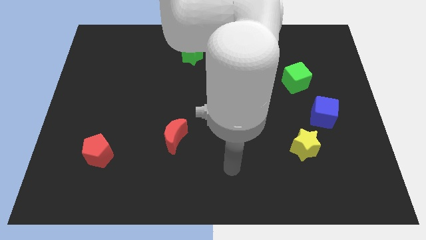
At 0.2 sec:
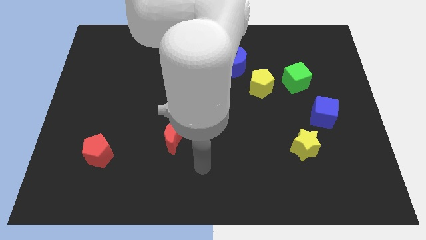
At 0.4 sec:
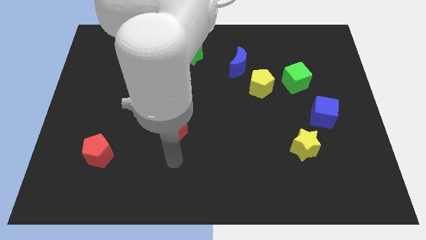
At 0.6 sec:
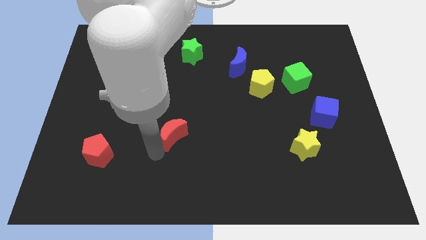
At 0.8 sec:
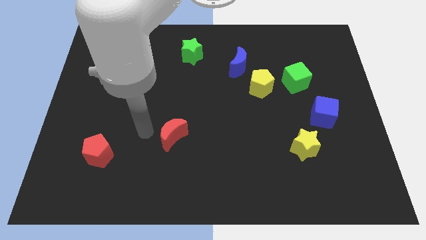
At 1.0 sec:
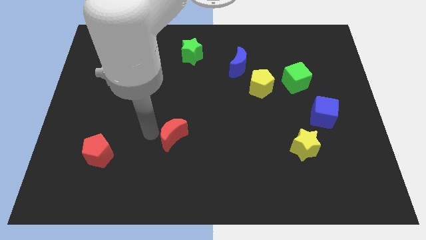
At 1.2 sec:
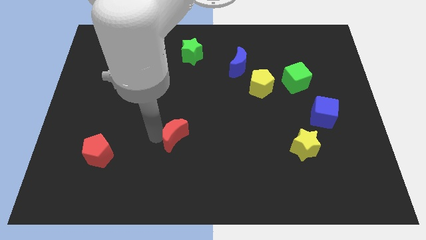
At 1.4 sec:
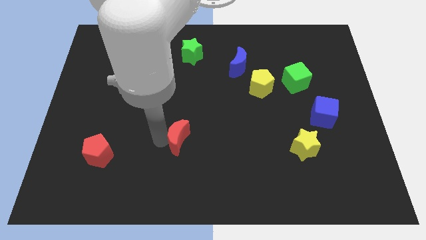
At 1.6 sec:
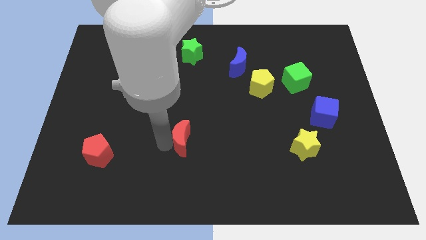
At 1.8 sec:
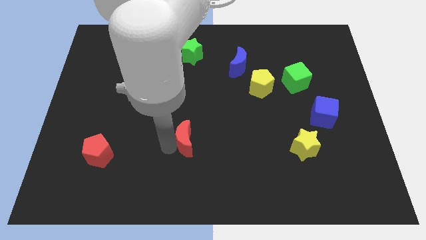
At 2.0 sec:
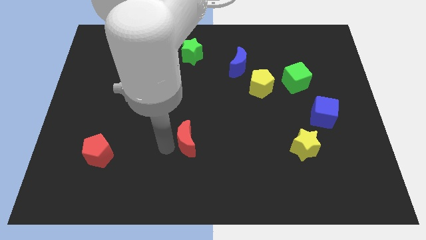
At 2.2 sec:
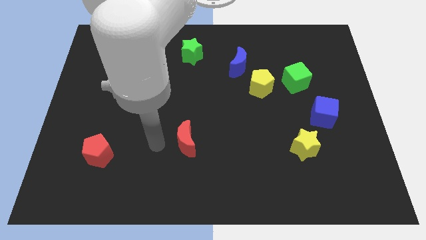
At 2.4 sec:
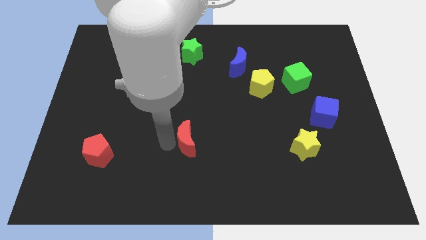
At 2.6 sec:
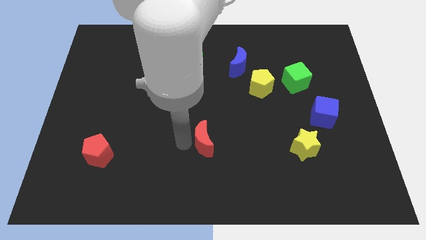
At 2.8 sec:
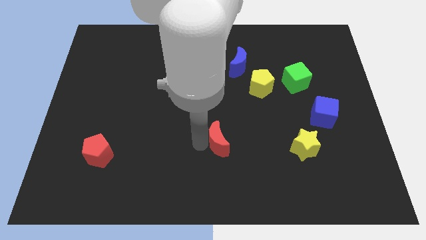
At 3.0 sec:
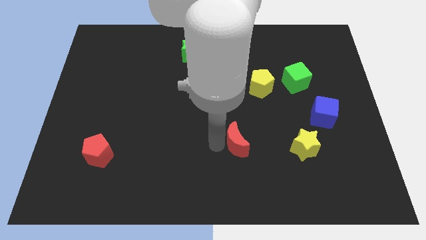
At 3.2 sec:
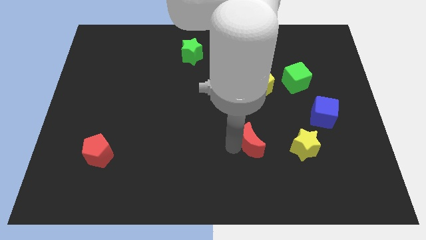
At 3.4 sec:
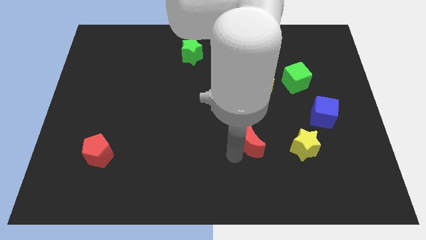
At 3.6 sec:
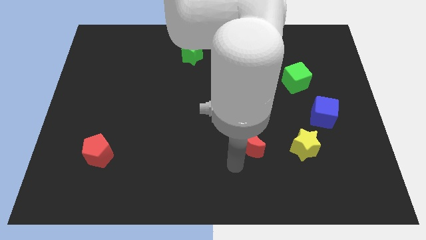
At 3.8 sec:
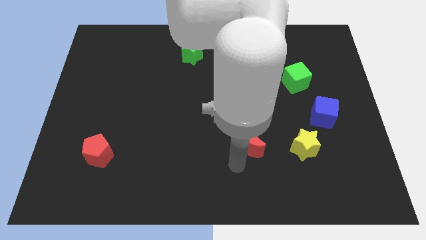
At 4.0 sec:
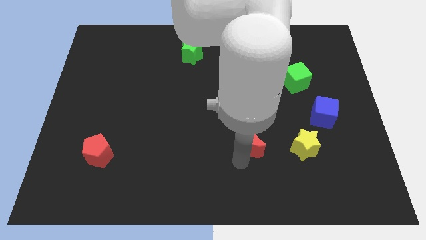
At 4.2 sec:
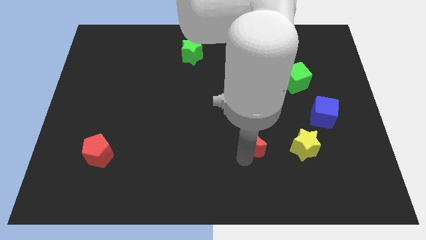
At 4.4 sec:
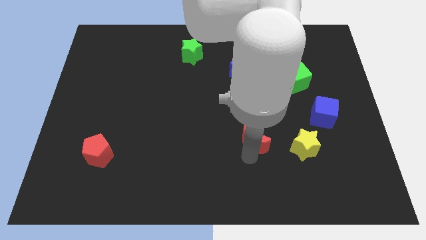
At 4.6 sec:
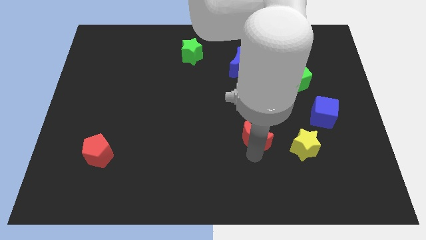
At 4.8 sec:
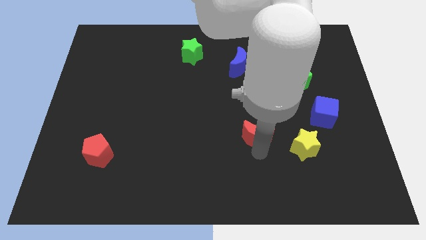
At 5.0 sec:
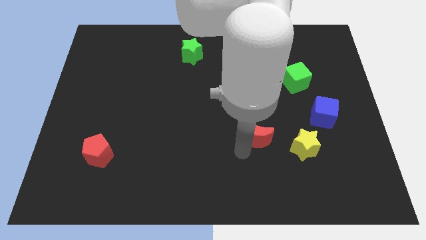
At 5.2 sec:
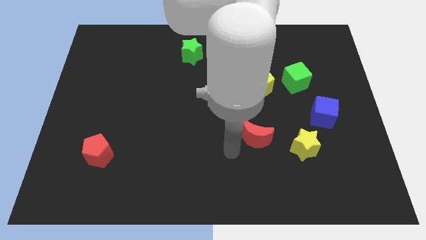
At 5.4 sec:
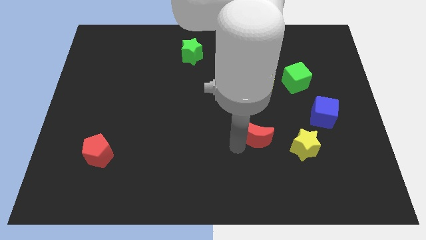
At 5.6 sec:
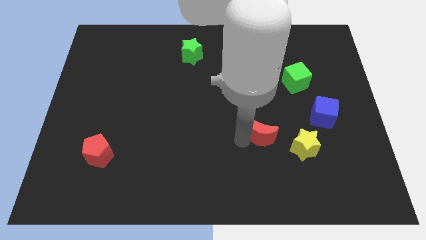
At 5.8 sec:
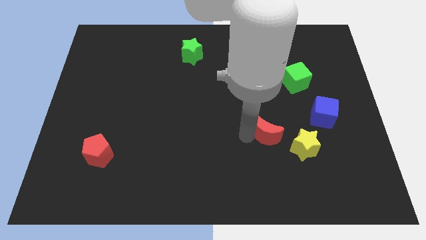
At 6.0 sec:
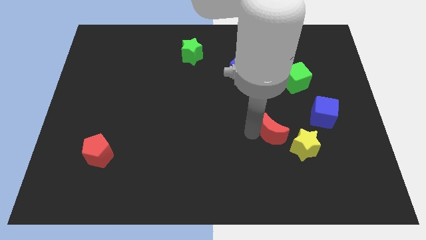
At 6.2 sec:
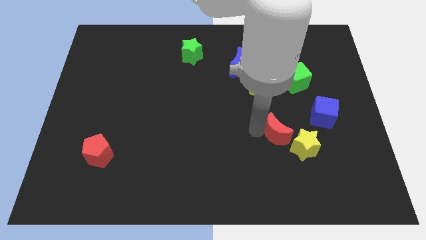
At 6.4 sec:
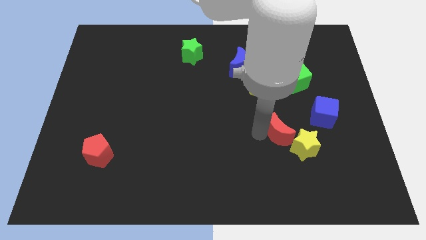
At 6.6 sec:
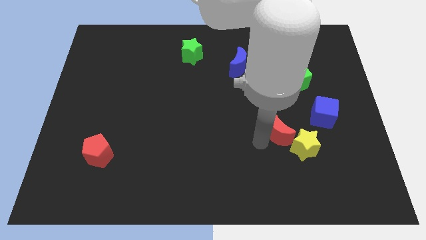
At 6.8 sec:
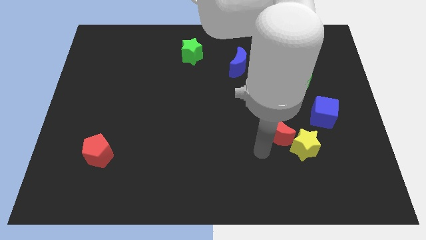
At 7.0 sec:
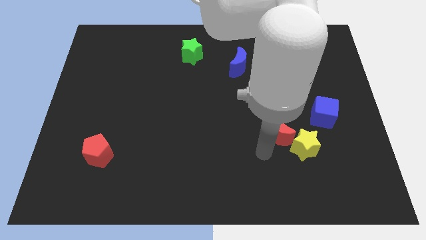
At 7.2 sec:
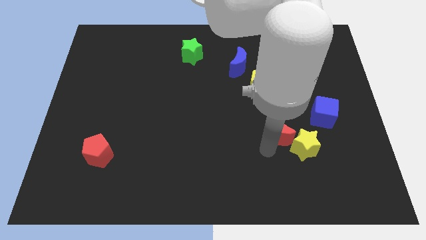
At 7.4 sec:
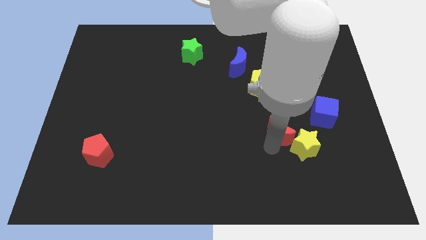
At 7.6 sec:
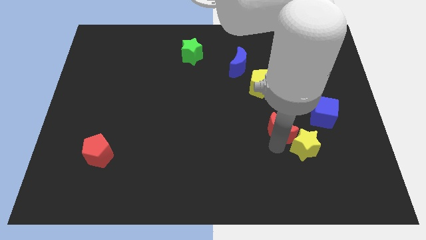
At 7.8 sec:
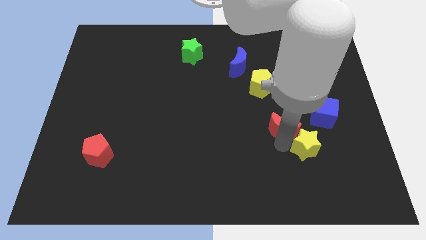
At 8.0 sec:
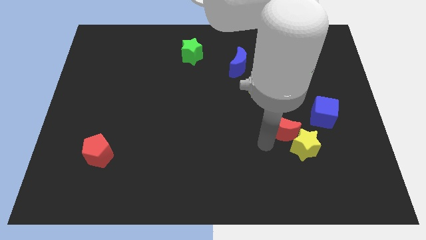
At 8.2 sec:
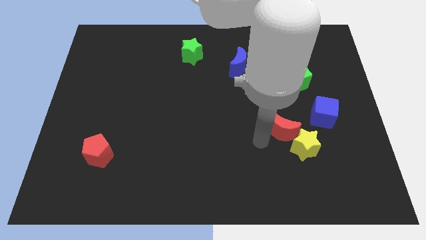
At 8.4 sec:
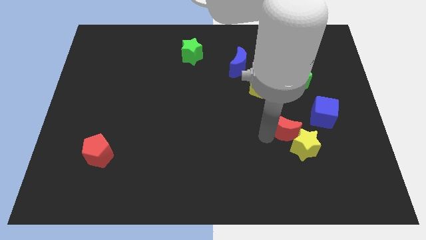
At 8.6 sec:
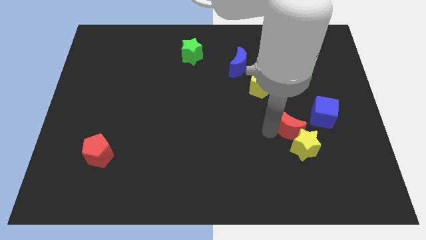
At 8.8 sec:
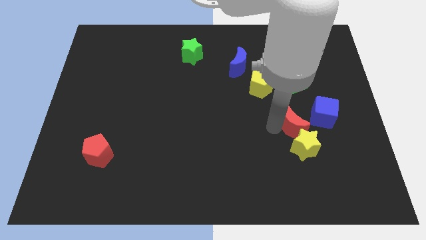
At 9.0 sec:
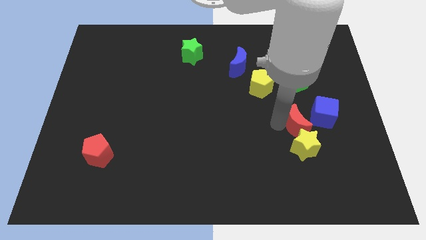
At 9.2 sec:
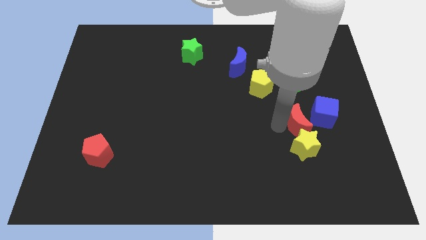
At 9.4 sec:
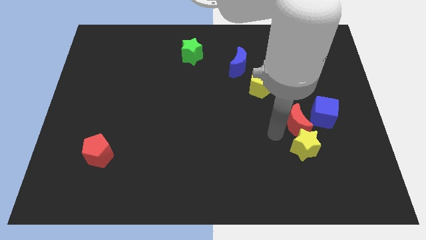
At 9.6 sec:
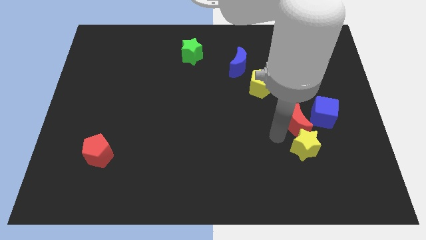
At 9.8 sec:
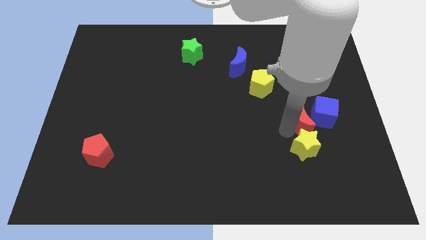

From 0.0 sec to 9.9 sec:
put the red moon close to the blue cube

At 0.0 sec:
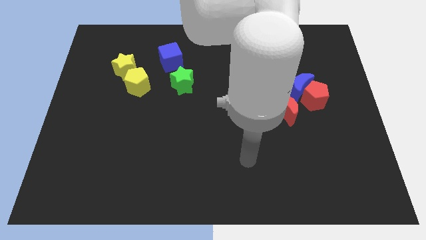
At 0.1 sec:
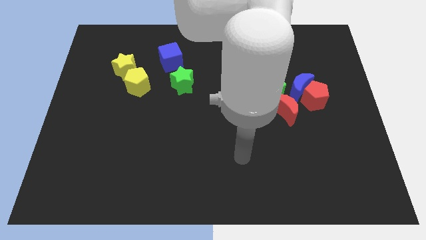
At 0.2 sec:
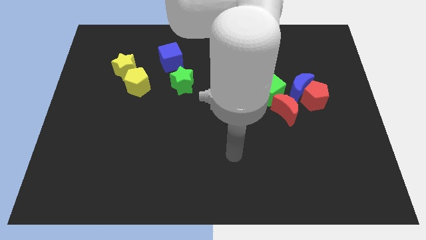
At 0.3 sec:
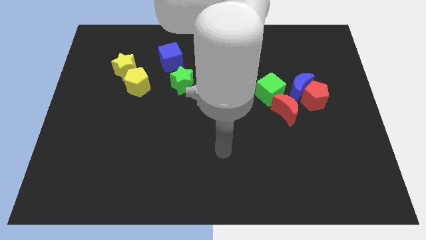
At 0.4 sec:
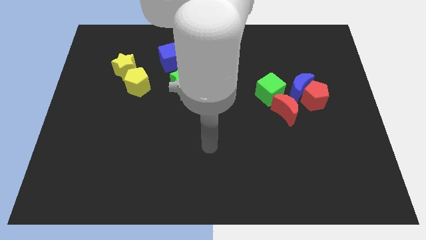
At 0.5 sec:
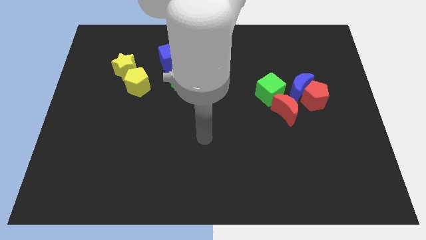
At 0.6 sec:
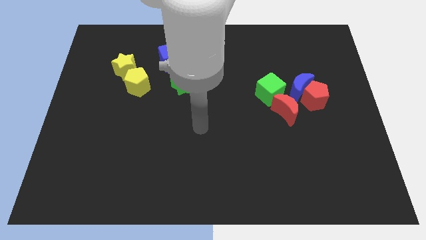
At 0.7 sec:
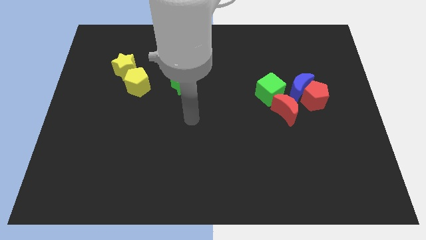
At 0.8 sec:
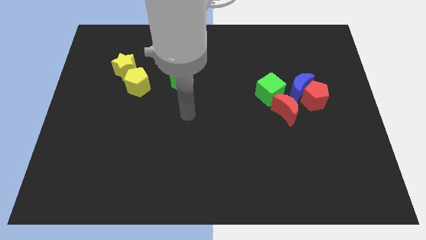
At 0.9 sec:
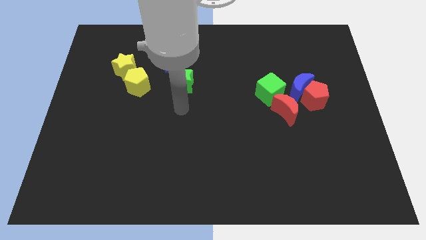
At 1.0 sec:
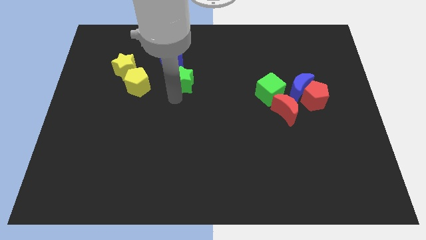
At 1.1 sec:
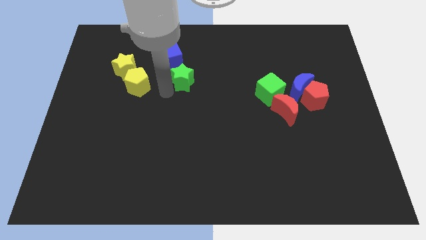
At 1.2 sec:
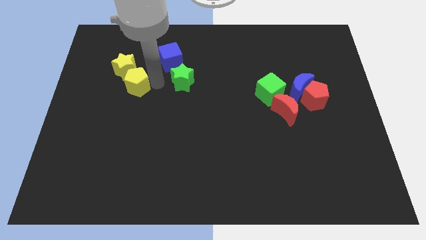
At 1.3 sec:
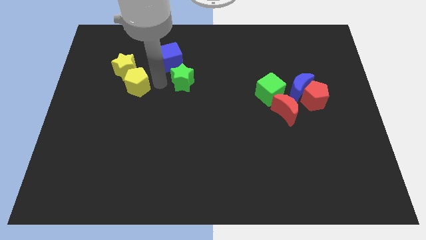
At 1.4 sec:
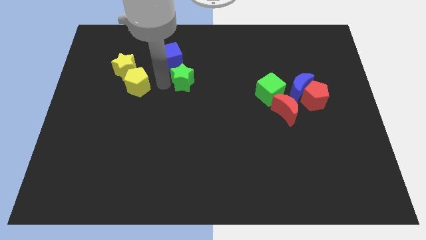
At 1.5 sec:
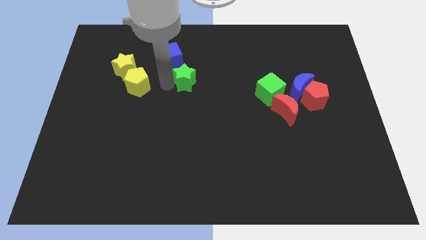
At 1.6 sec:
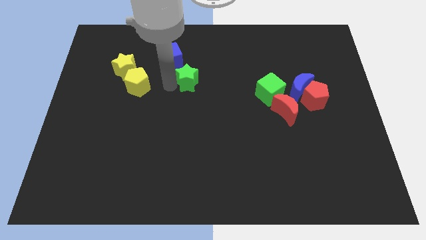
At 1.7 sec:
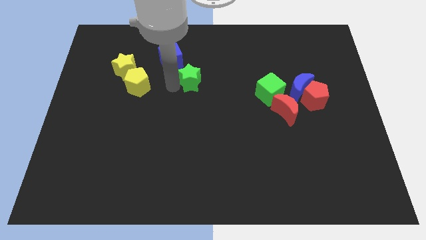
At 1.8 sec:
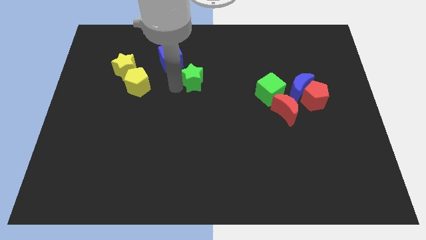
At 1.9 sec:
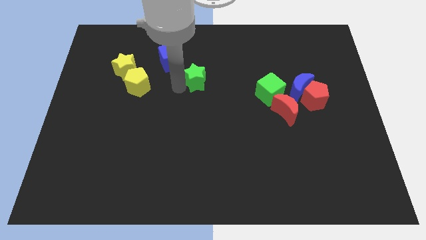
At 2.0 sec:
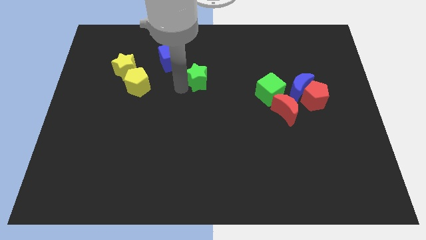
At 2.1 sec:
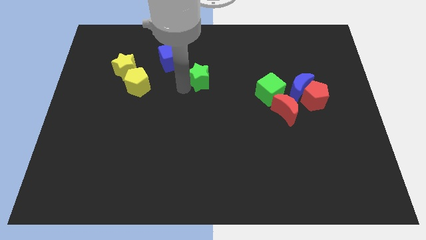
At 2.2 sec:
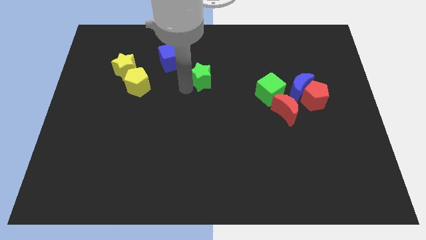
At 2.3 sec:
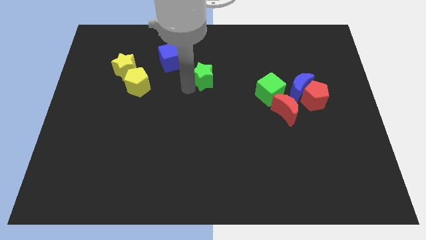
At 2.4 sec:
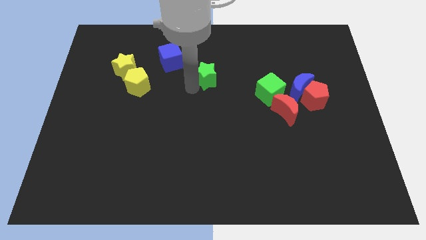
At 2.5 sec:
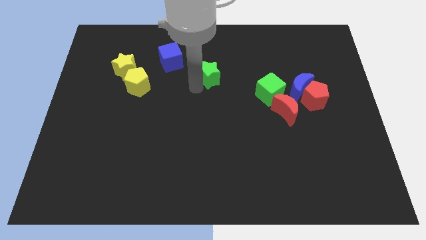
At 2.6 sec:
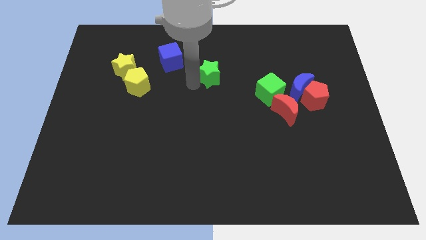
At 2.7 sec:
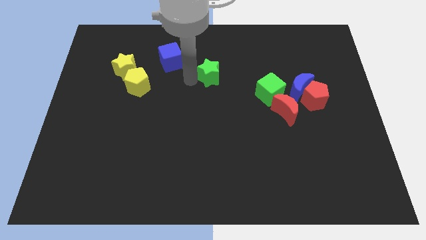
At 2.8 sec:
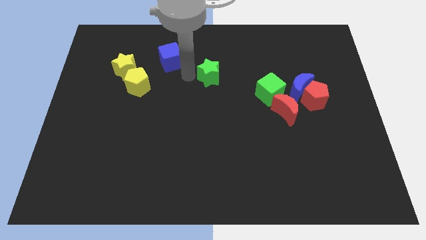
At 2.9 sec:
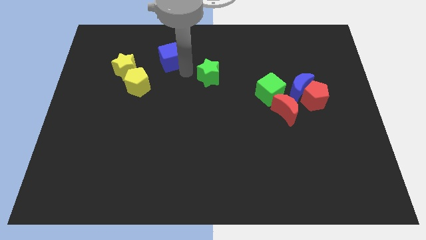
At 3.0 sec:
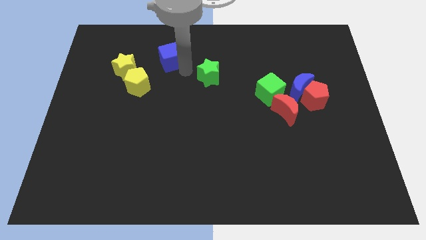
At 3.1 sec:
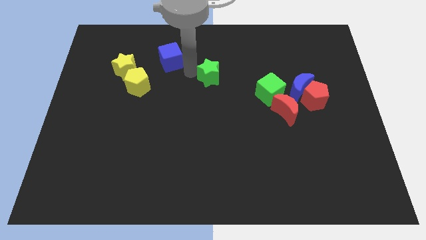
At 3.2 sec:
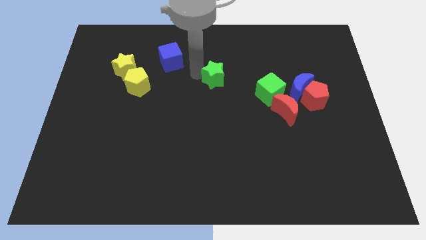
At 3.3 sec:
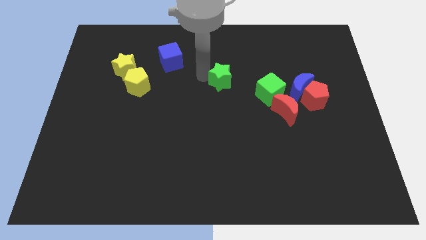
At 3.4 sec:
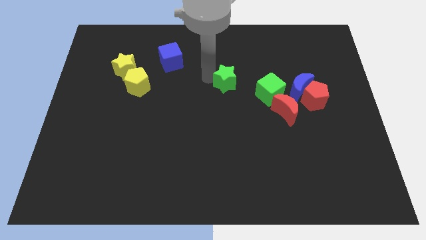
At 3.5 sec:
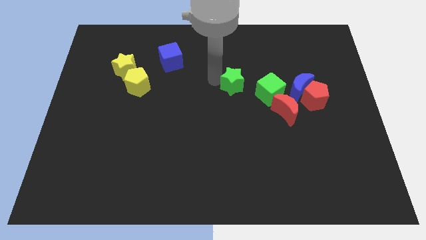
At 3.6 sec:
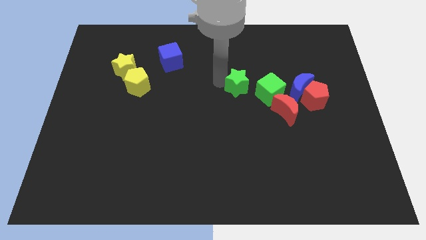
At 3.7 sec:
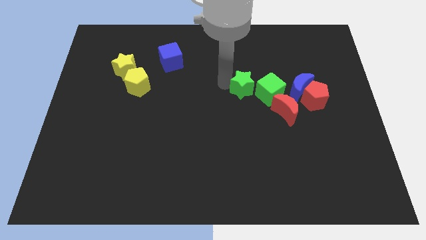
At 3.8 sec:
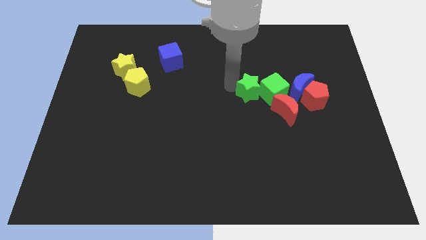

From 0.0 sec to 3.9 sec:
move the green star to the green cube
